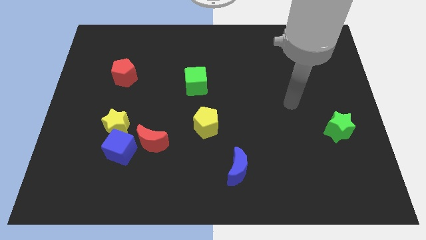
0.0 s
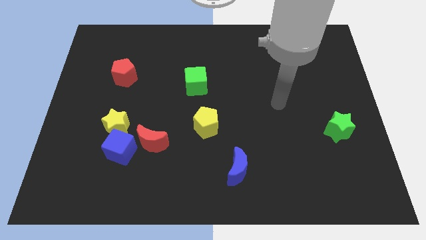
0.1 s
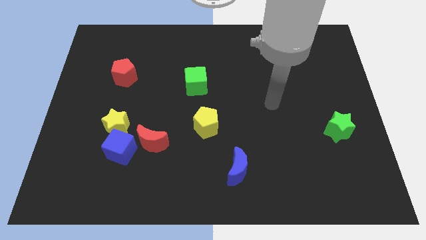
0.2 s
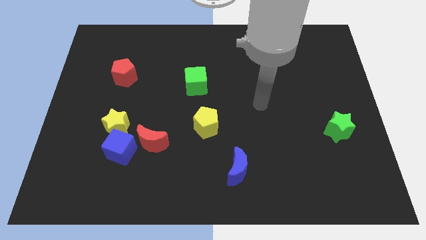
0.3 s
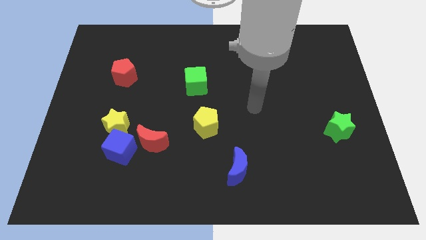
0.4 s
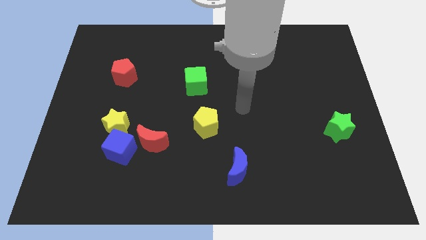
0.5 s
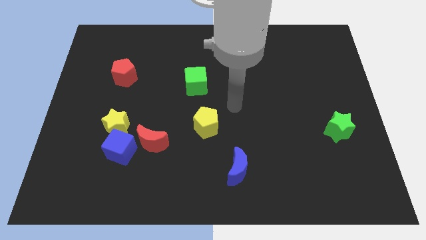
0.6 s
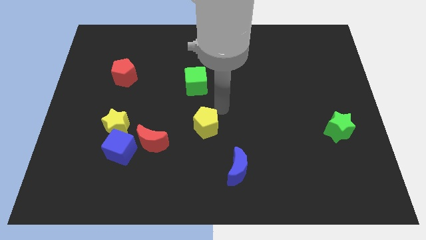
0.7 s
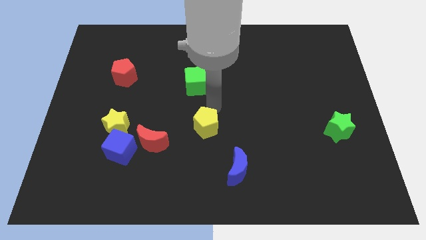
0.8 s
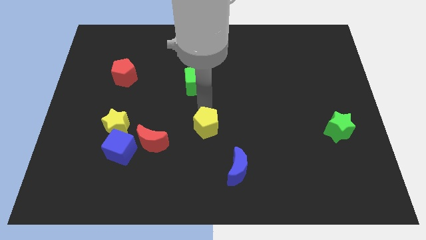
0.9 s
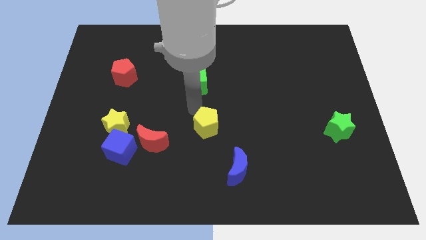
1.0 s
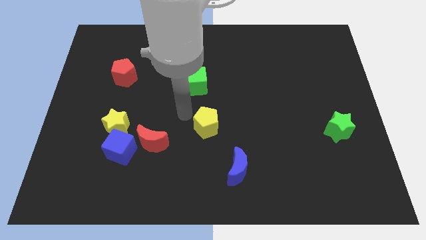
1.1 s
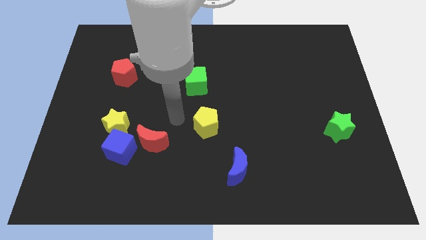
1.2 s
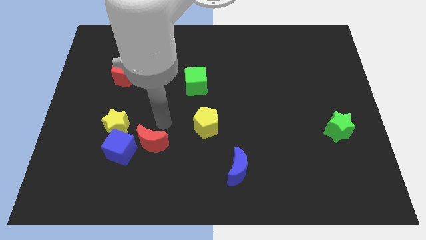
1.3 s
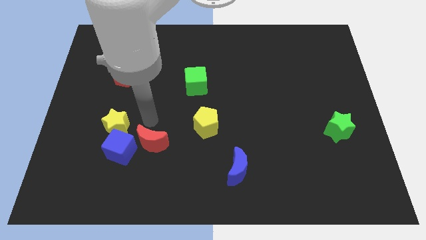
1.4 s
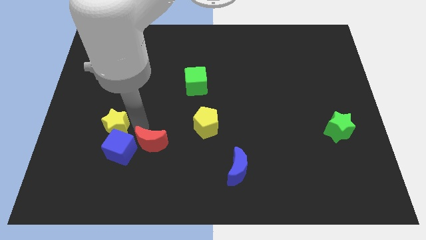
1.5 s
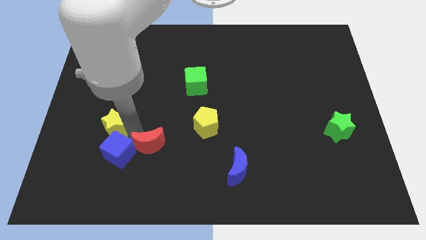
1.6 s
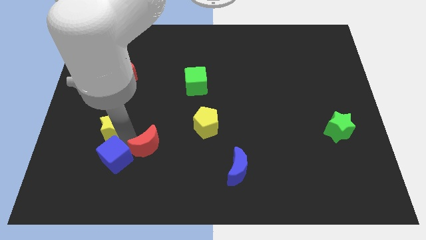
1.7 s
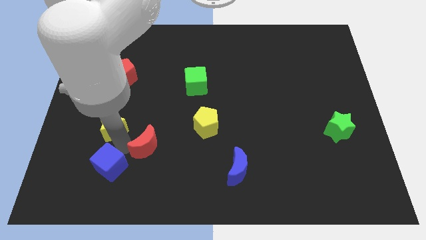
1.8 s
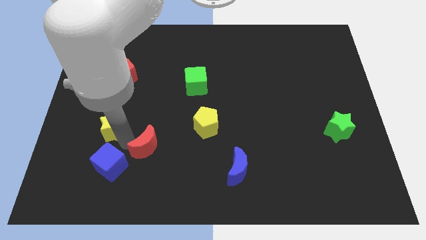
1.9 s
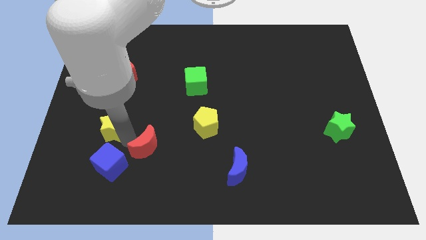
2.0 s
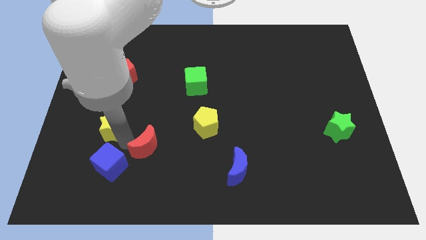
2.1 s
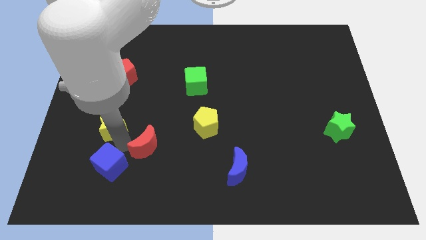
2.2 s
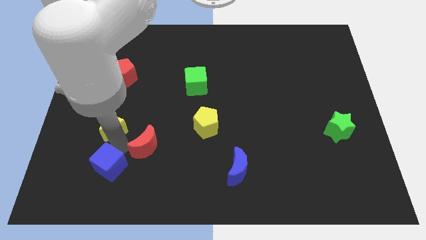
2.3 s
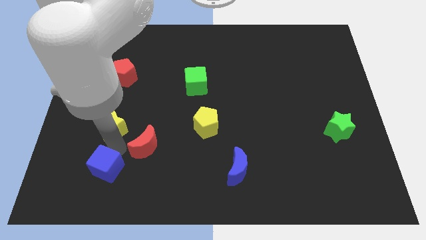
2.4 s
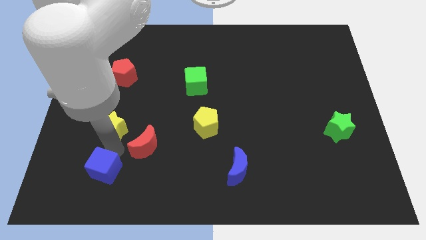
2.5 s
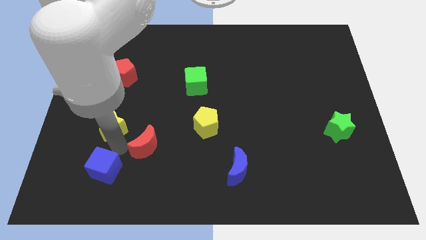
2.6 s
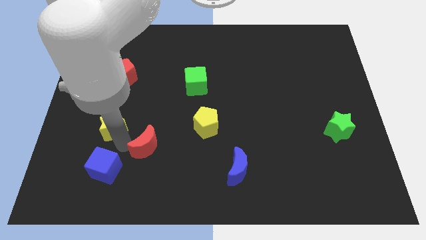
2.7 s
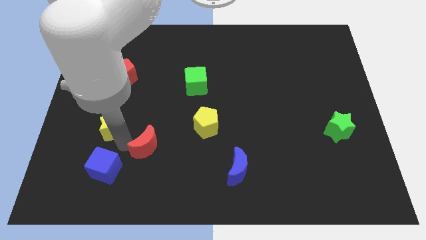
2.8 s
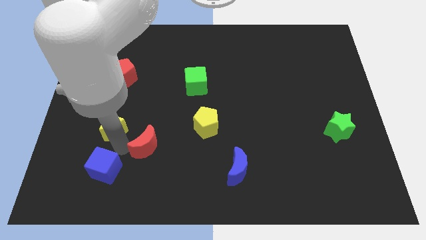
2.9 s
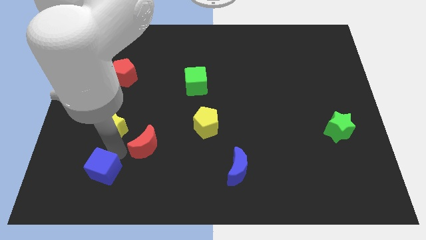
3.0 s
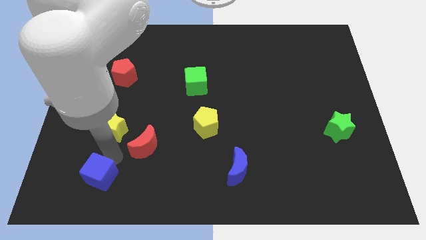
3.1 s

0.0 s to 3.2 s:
move the blue cube away from the yellow star and red moon

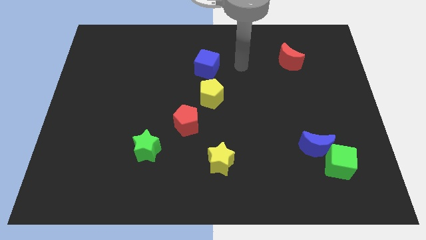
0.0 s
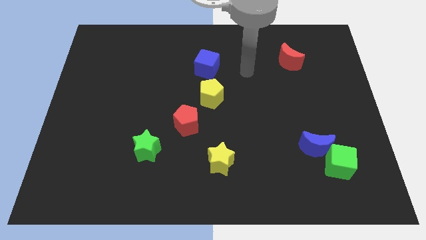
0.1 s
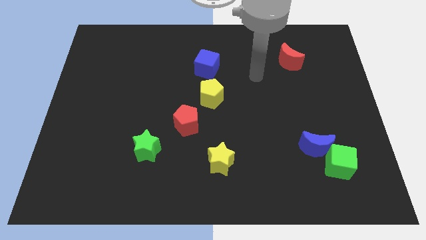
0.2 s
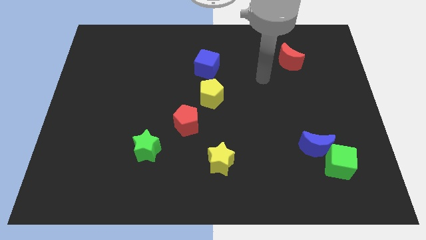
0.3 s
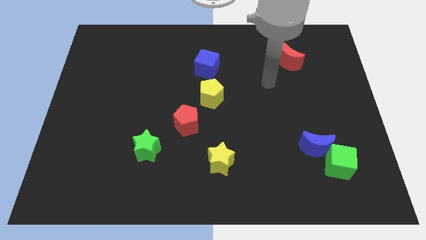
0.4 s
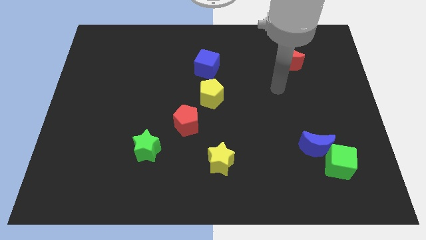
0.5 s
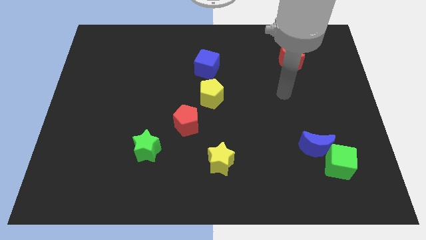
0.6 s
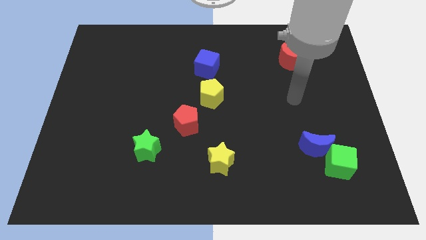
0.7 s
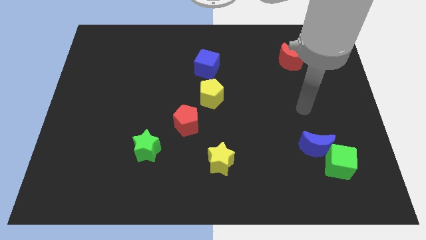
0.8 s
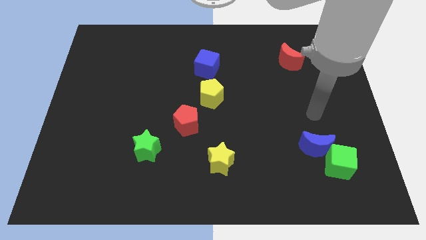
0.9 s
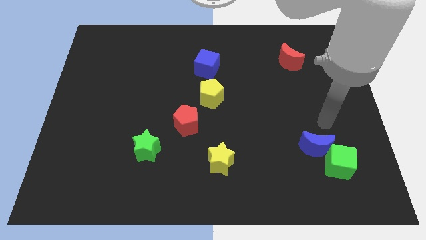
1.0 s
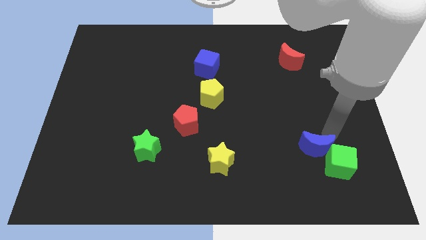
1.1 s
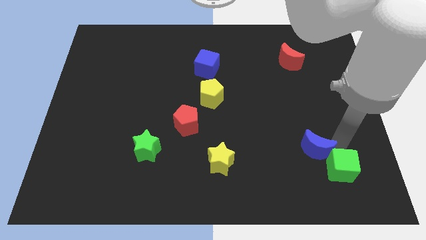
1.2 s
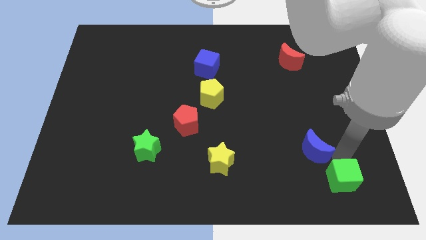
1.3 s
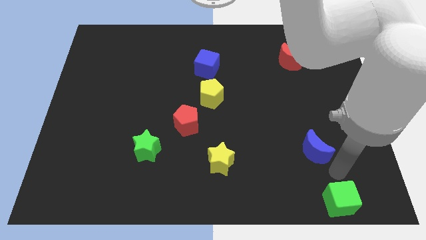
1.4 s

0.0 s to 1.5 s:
separate the blue moon from the green cube

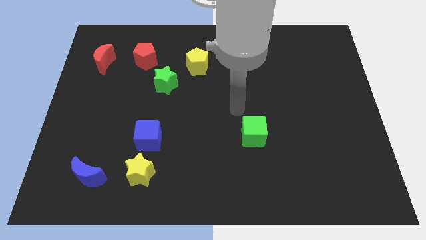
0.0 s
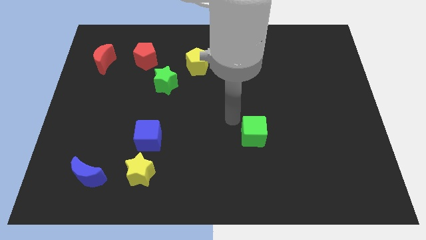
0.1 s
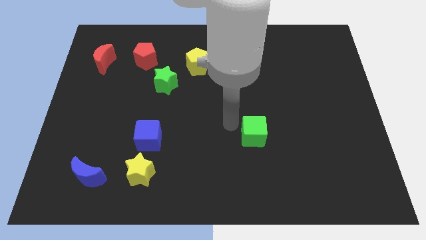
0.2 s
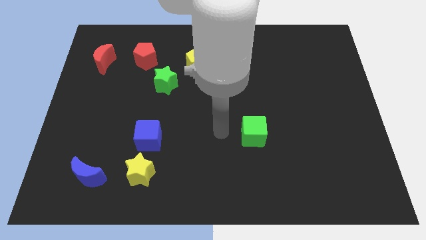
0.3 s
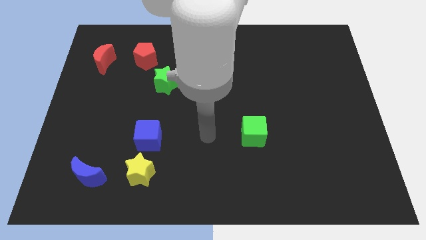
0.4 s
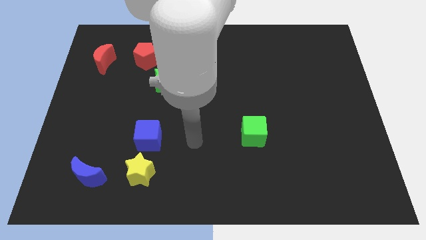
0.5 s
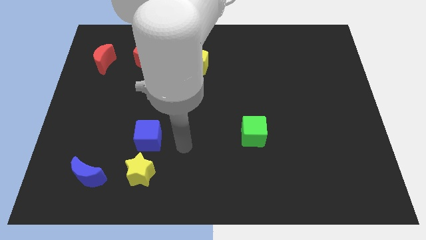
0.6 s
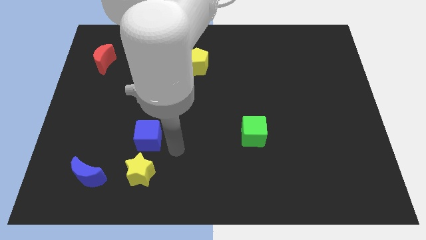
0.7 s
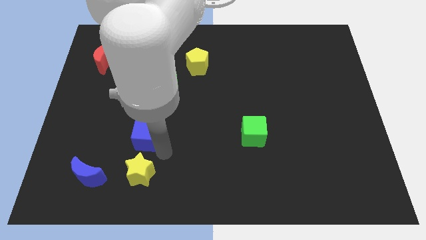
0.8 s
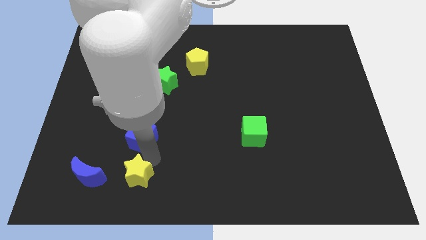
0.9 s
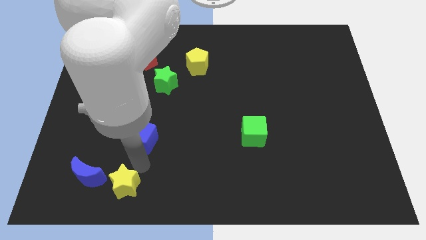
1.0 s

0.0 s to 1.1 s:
separate the blue cube from the yellow star

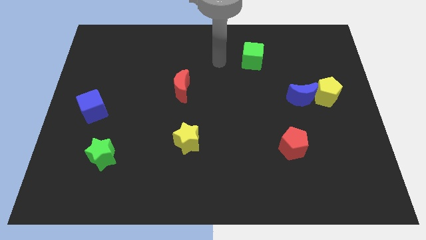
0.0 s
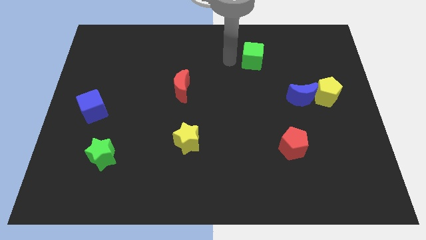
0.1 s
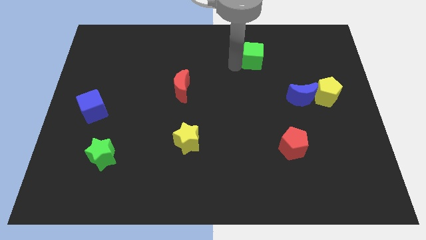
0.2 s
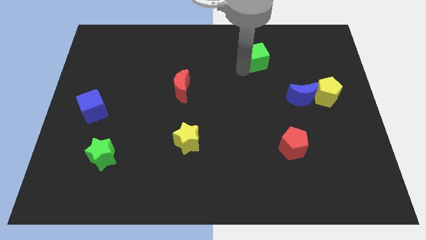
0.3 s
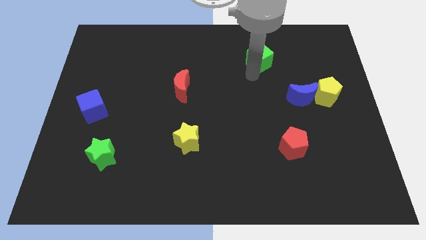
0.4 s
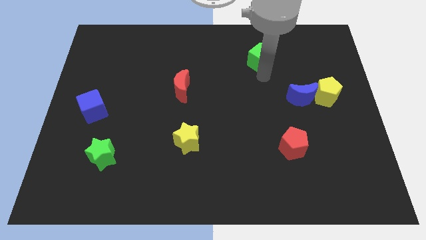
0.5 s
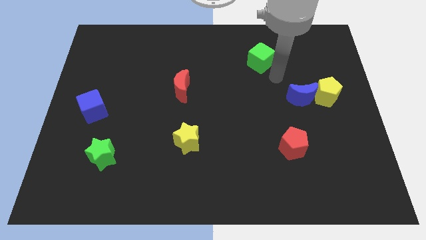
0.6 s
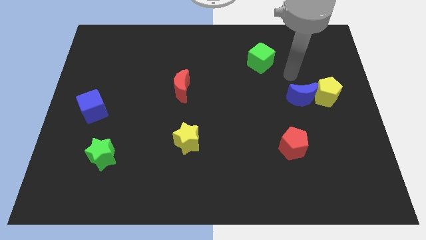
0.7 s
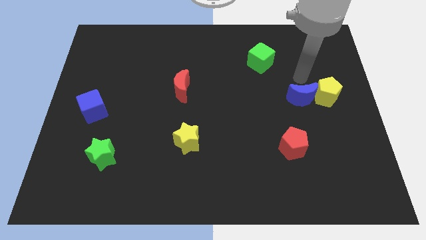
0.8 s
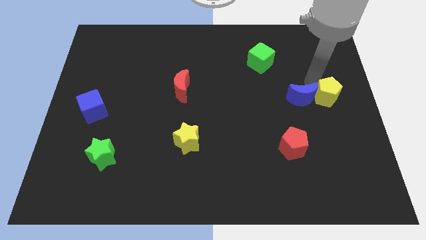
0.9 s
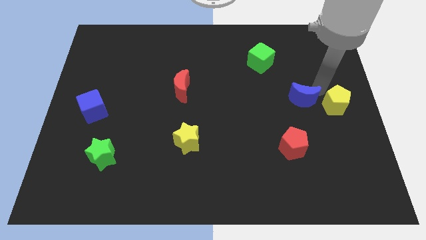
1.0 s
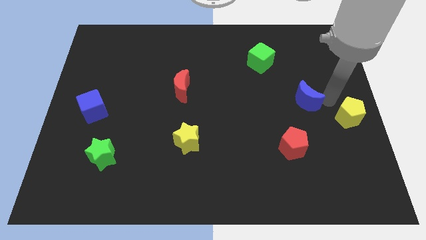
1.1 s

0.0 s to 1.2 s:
pull the blue moon apart from the yellow pentagon

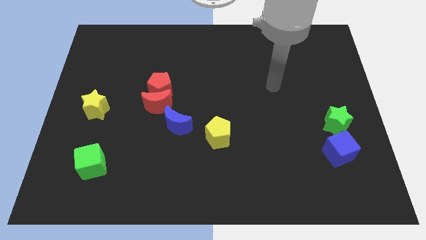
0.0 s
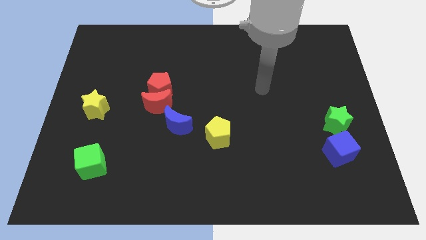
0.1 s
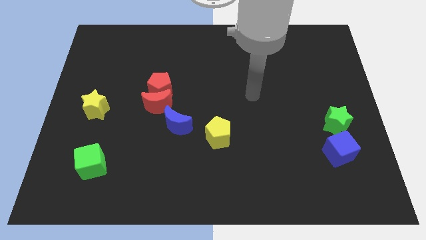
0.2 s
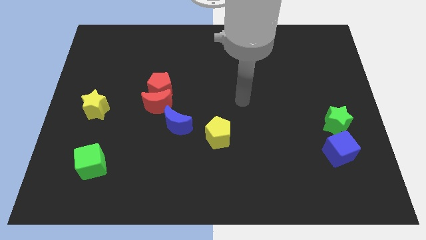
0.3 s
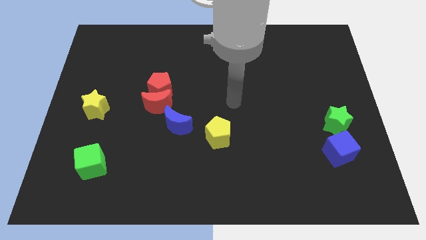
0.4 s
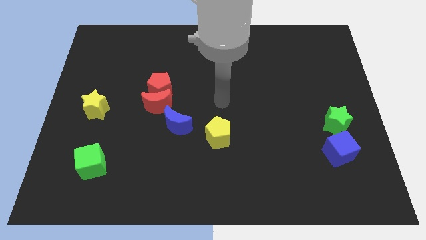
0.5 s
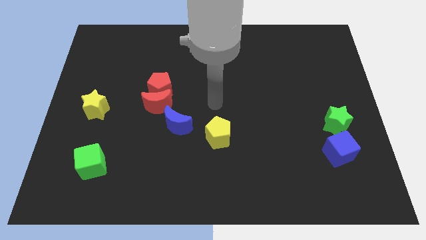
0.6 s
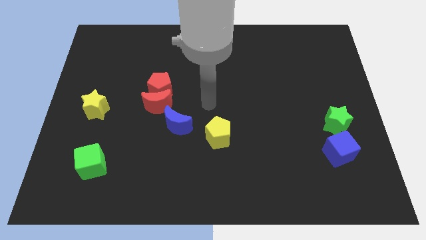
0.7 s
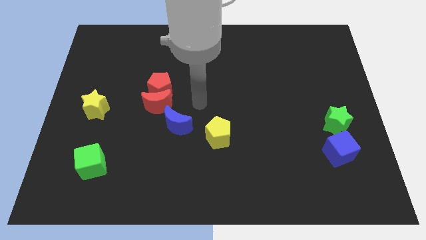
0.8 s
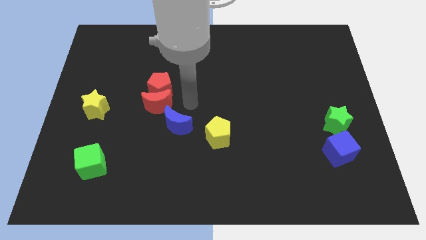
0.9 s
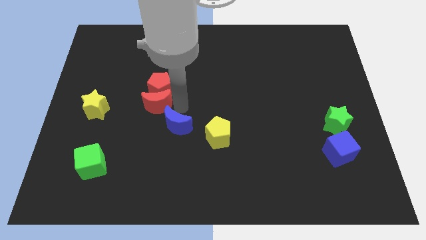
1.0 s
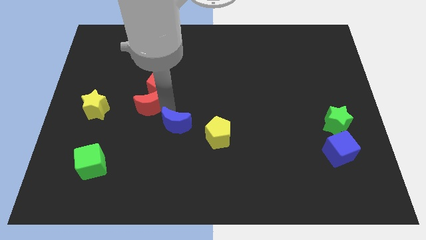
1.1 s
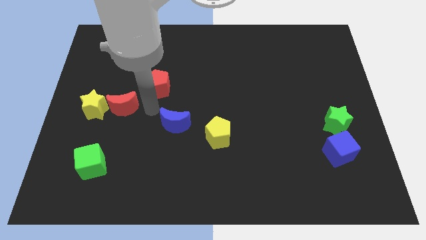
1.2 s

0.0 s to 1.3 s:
pull the red pentagon apart from the red moon

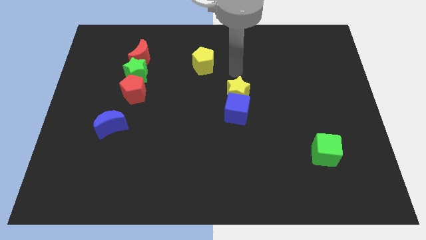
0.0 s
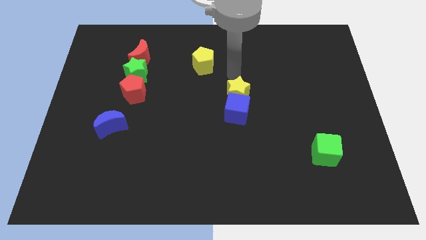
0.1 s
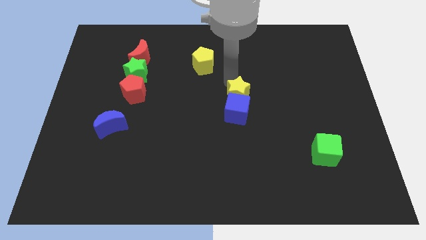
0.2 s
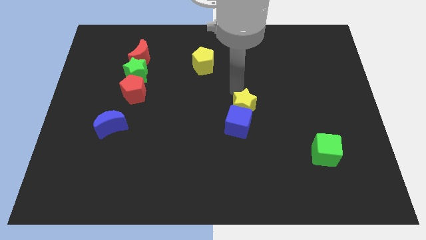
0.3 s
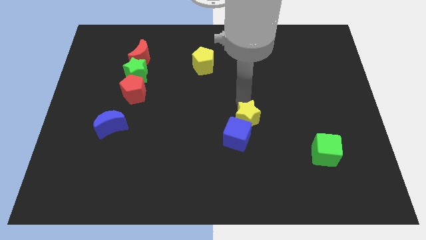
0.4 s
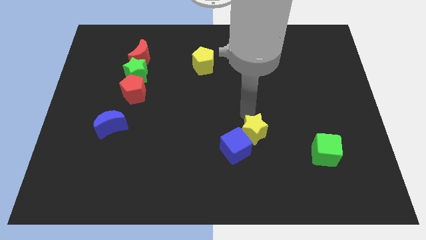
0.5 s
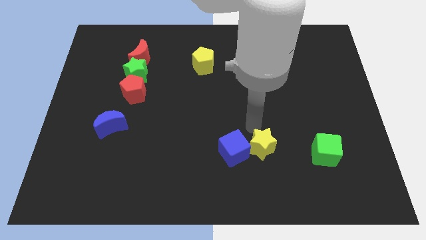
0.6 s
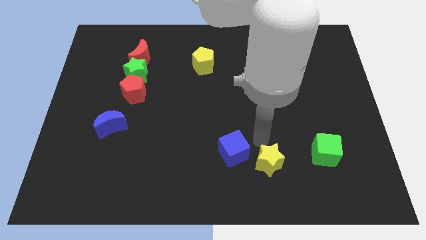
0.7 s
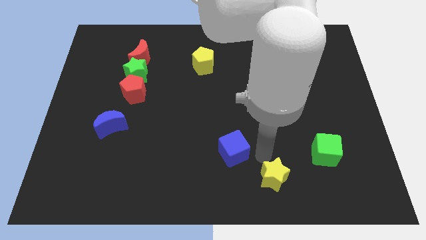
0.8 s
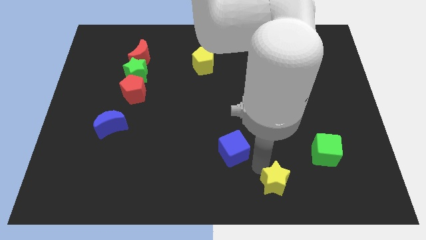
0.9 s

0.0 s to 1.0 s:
pull the blue cube apart from the yellow star
